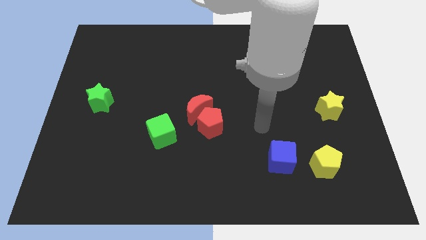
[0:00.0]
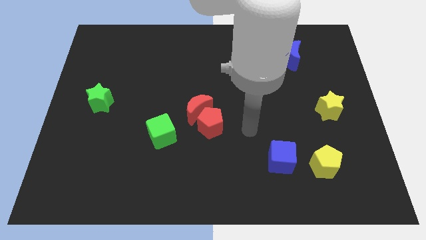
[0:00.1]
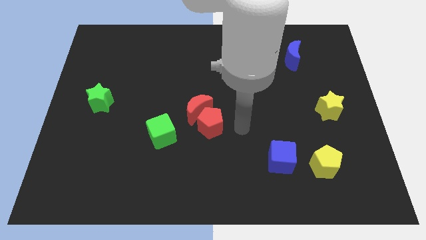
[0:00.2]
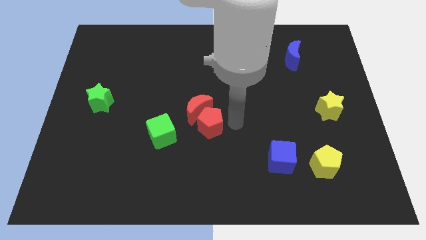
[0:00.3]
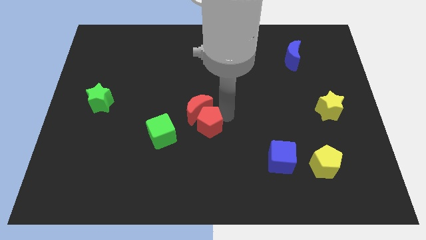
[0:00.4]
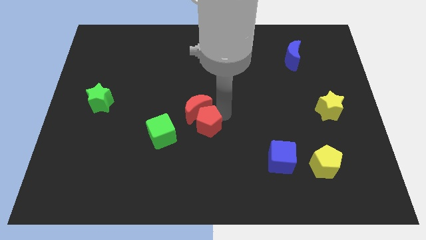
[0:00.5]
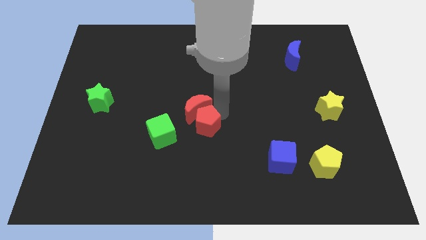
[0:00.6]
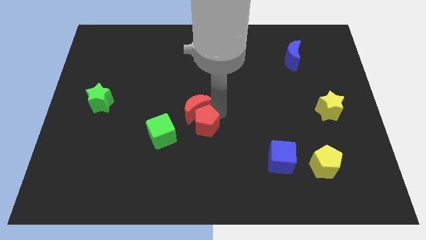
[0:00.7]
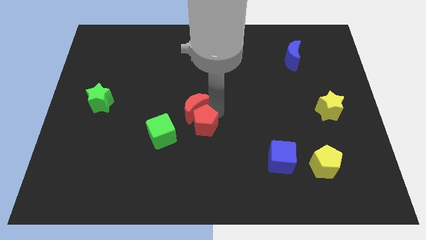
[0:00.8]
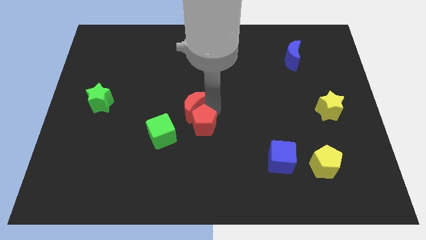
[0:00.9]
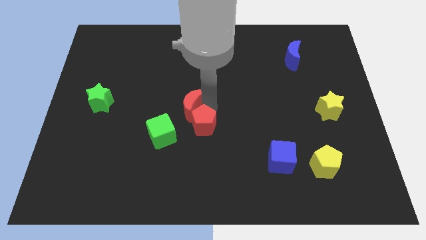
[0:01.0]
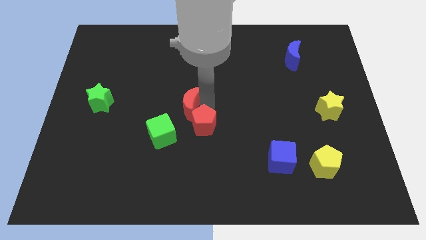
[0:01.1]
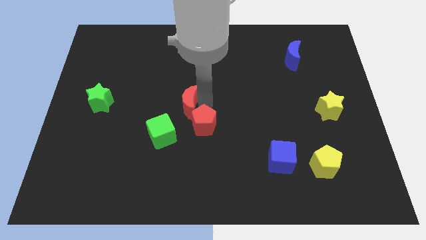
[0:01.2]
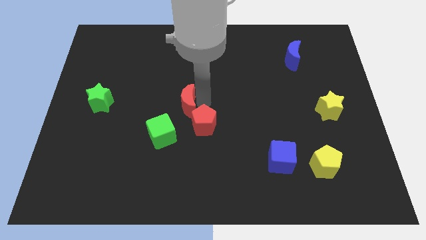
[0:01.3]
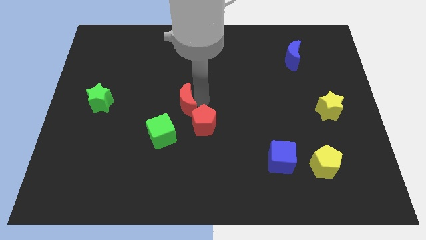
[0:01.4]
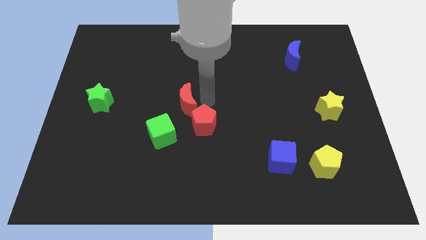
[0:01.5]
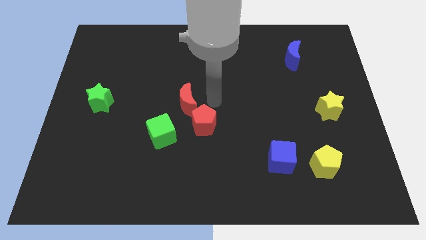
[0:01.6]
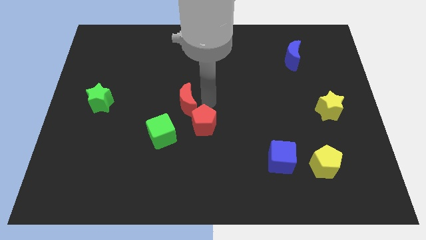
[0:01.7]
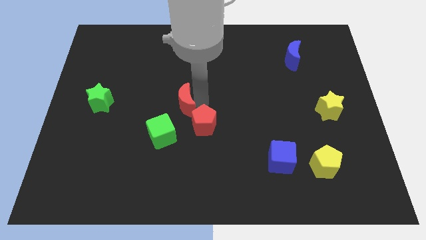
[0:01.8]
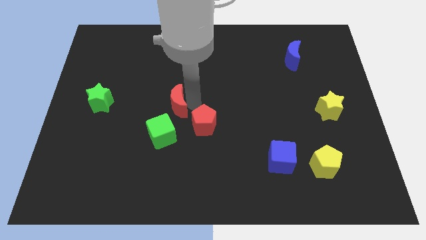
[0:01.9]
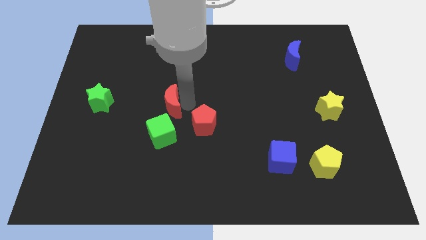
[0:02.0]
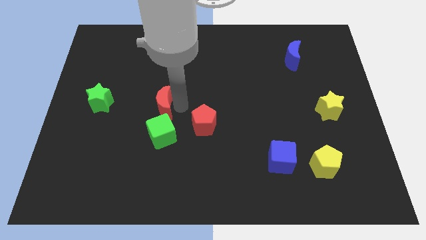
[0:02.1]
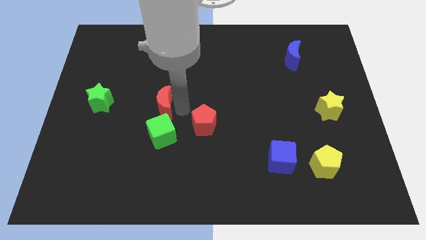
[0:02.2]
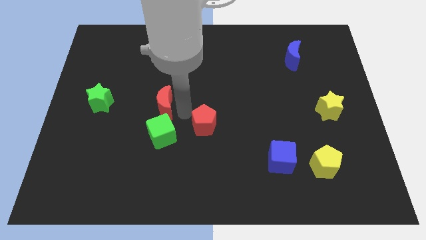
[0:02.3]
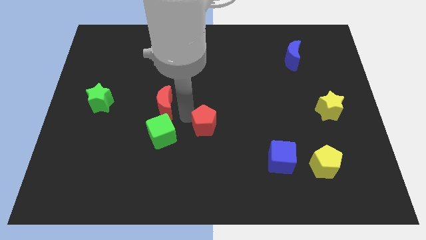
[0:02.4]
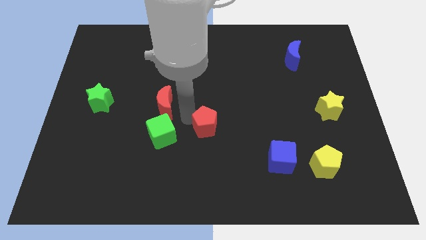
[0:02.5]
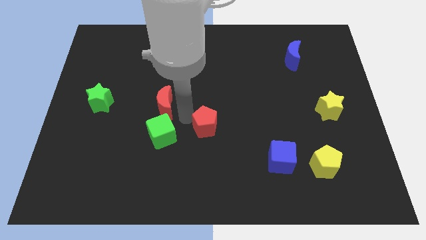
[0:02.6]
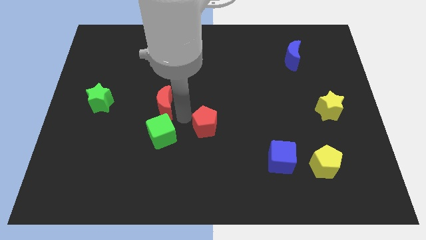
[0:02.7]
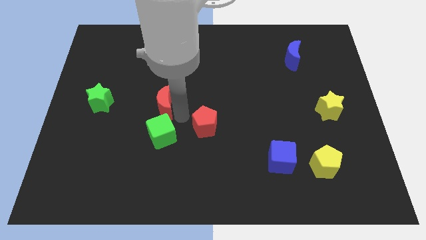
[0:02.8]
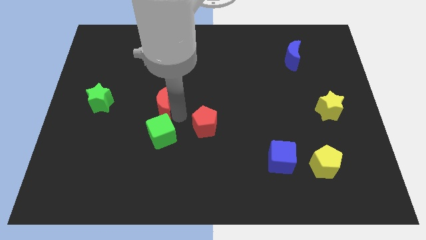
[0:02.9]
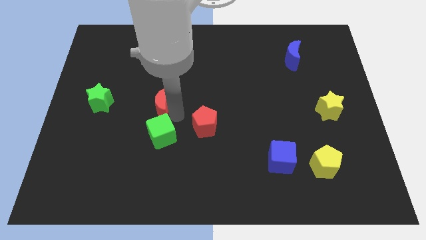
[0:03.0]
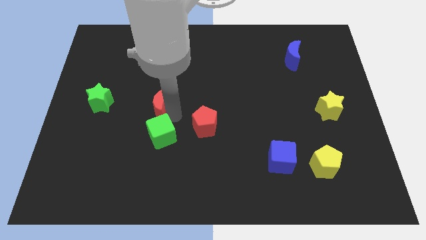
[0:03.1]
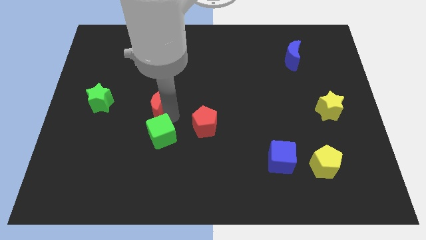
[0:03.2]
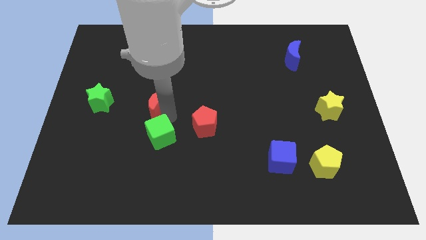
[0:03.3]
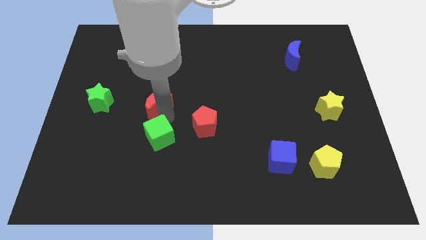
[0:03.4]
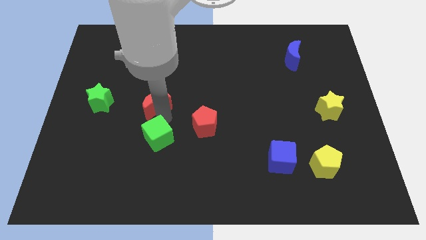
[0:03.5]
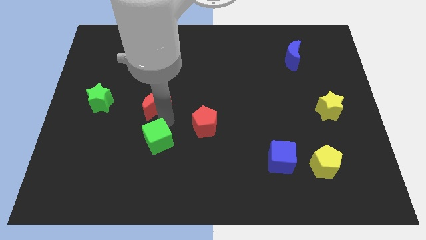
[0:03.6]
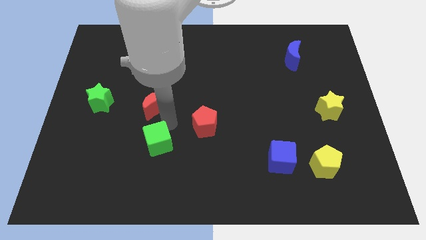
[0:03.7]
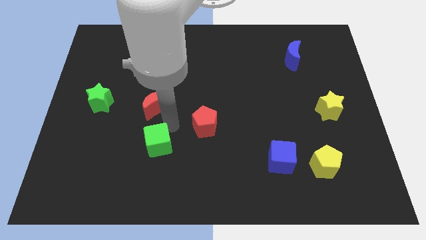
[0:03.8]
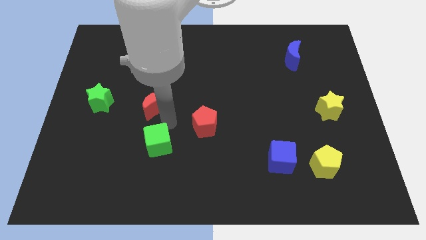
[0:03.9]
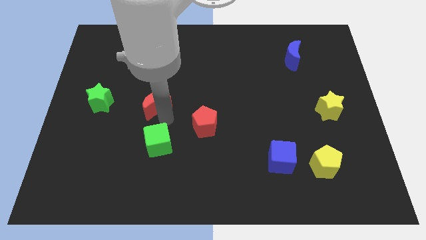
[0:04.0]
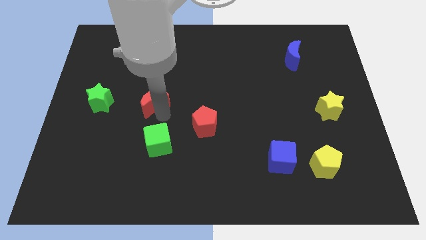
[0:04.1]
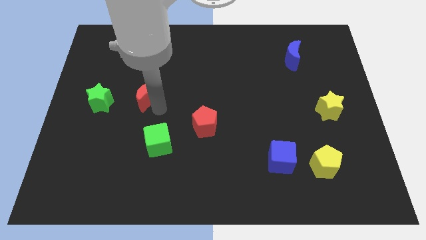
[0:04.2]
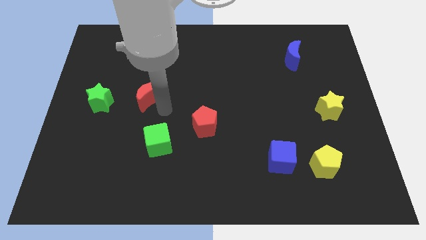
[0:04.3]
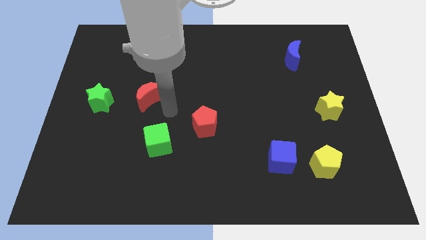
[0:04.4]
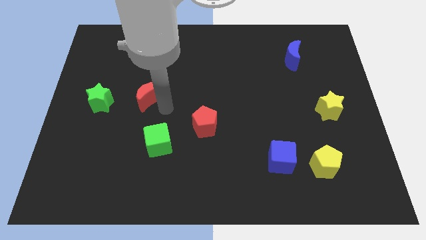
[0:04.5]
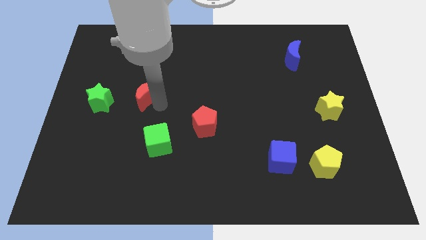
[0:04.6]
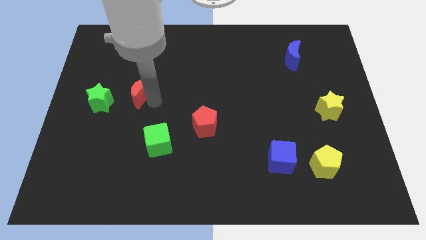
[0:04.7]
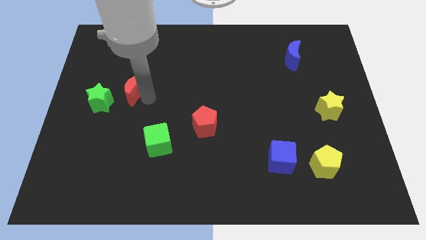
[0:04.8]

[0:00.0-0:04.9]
put the red moon to the top right side of the green star

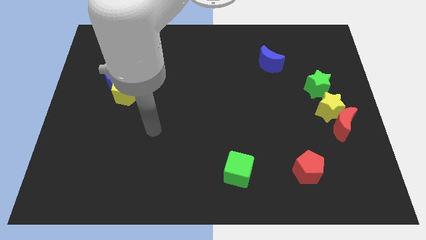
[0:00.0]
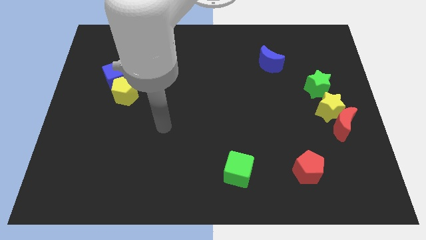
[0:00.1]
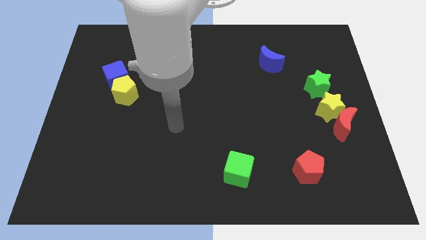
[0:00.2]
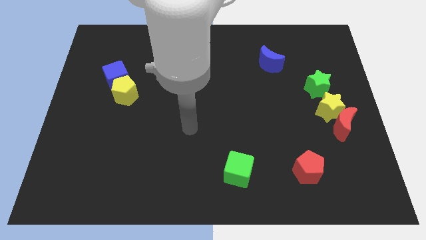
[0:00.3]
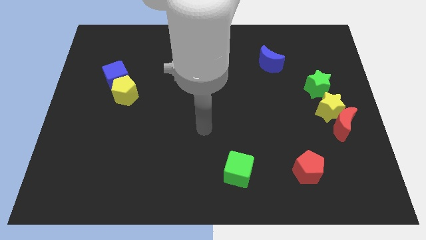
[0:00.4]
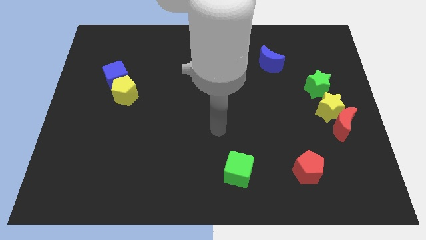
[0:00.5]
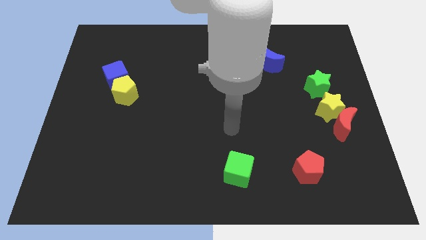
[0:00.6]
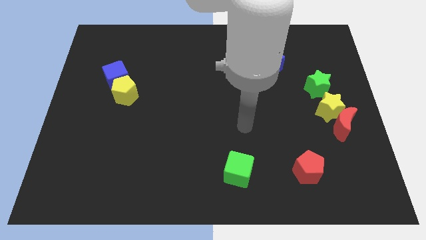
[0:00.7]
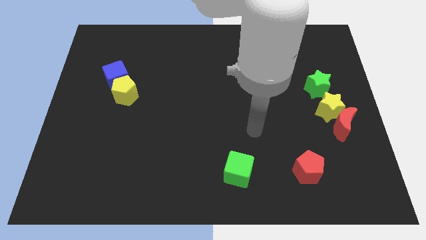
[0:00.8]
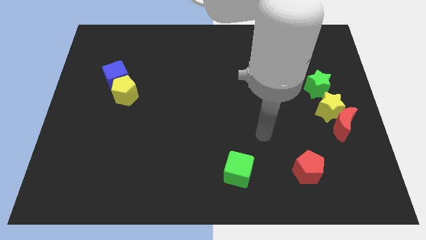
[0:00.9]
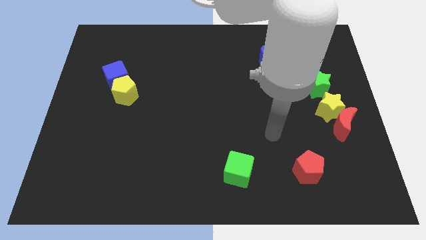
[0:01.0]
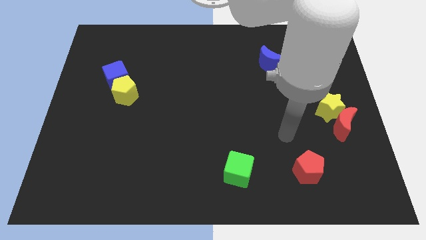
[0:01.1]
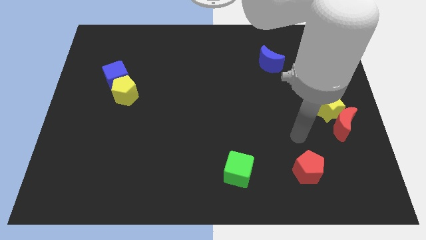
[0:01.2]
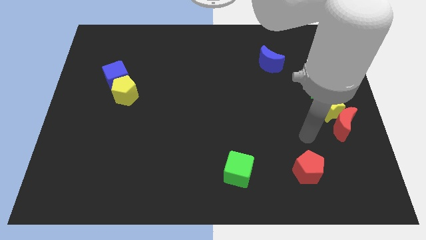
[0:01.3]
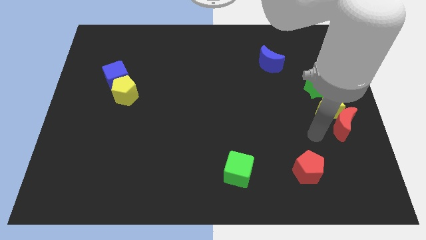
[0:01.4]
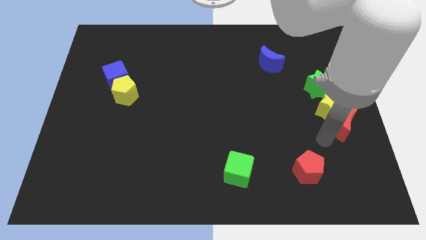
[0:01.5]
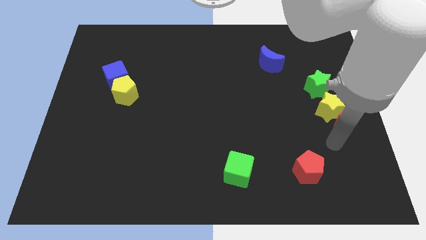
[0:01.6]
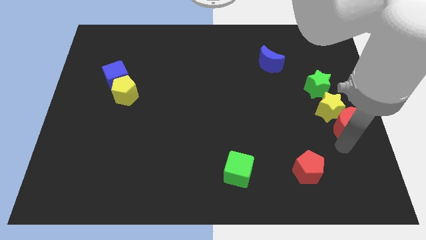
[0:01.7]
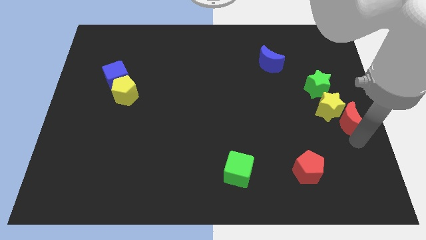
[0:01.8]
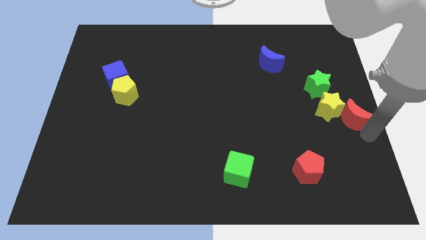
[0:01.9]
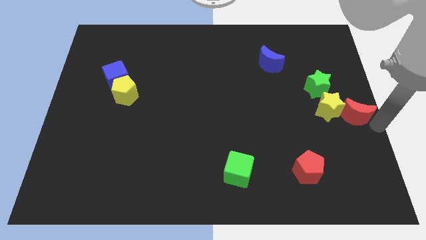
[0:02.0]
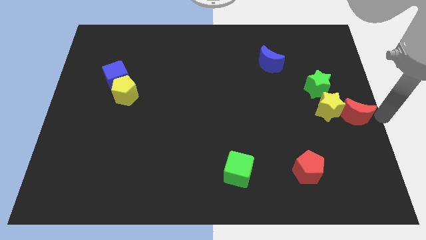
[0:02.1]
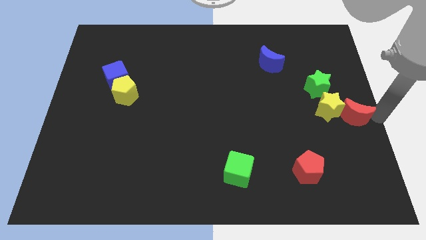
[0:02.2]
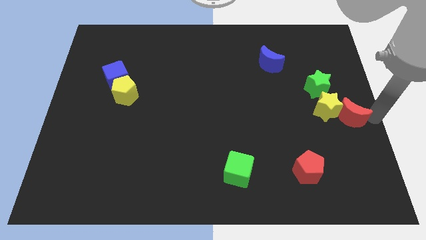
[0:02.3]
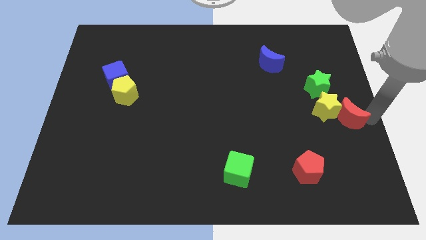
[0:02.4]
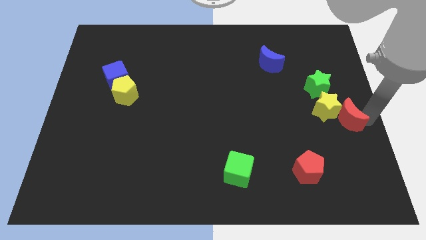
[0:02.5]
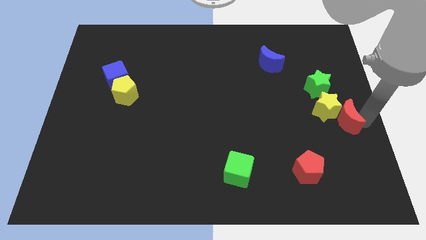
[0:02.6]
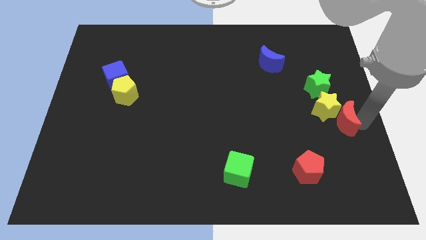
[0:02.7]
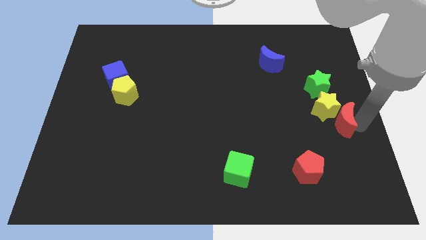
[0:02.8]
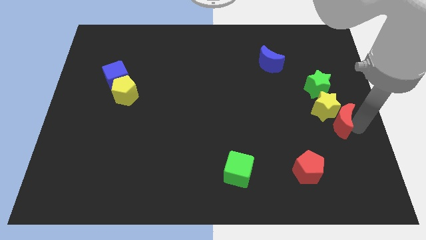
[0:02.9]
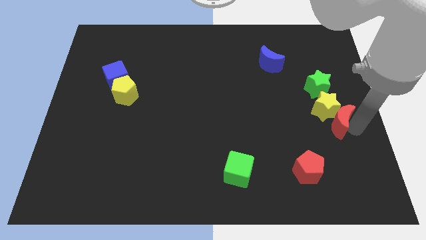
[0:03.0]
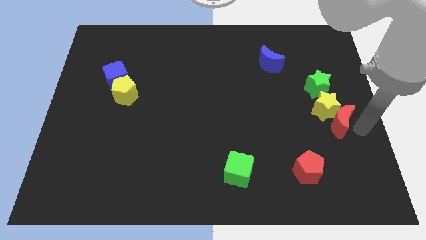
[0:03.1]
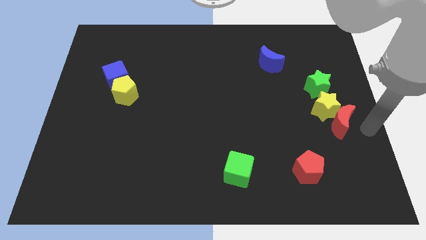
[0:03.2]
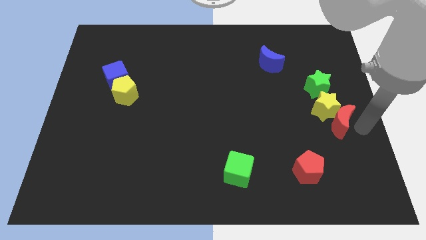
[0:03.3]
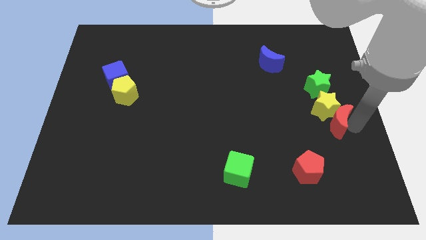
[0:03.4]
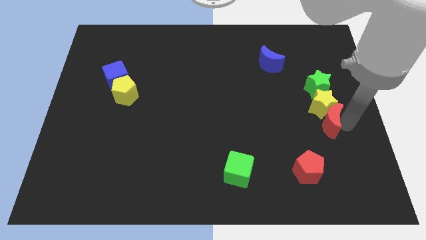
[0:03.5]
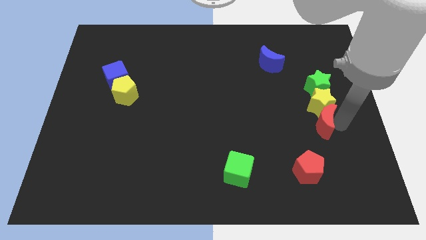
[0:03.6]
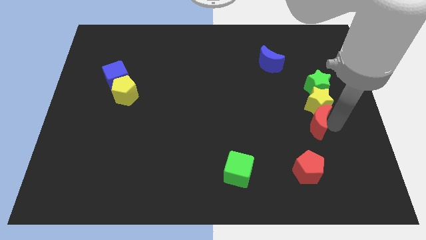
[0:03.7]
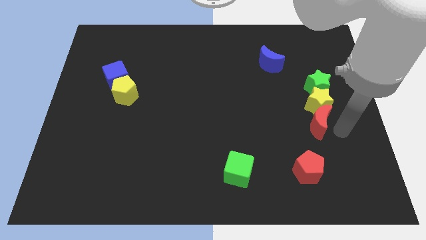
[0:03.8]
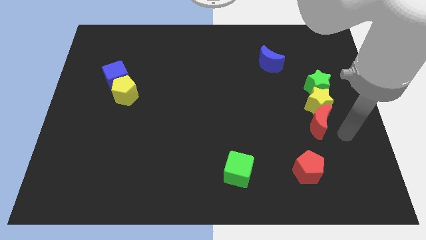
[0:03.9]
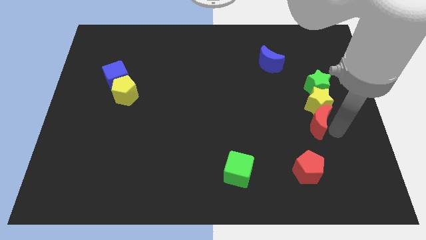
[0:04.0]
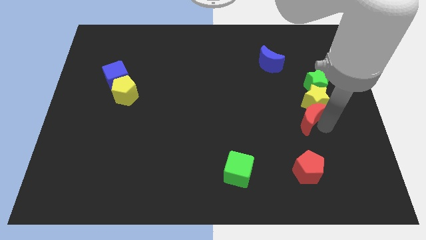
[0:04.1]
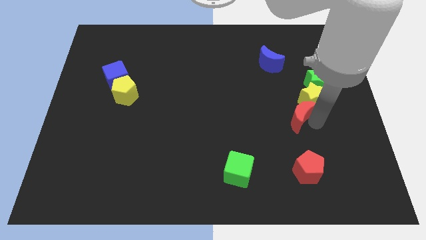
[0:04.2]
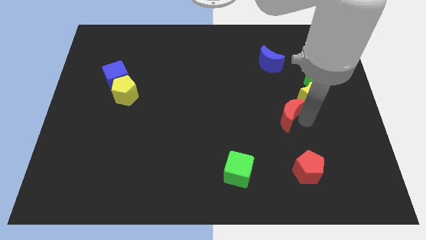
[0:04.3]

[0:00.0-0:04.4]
push the red moon left of the yellow star
